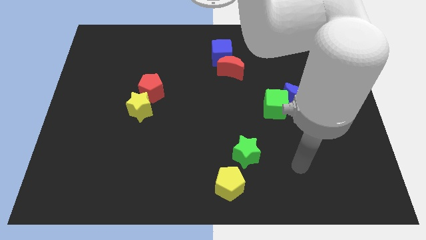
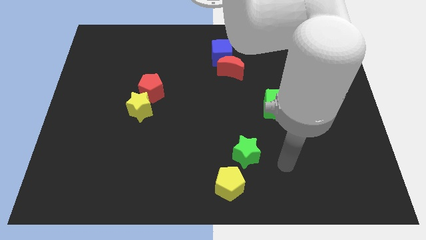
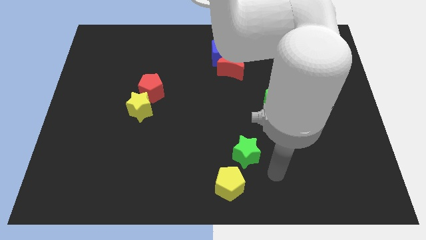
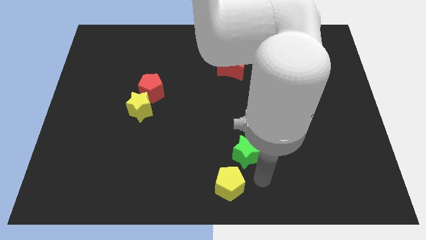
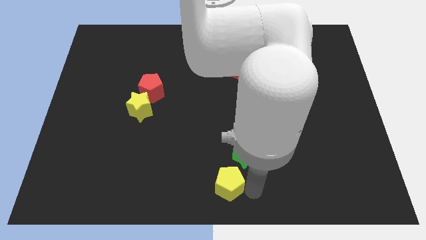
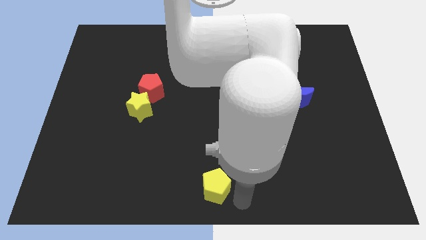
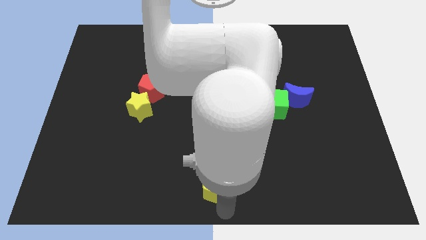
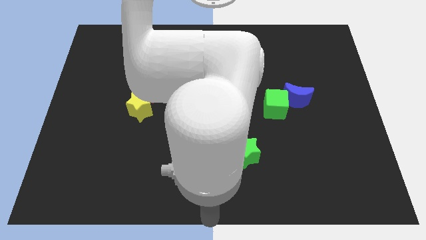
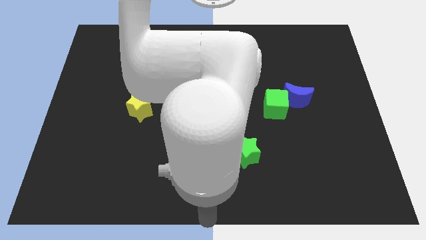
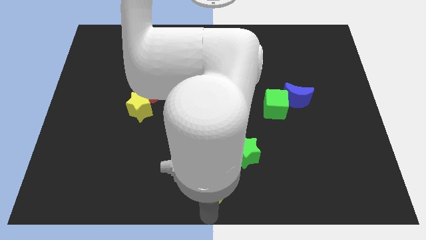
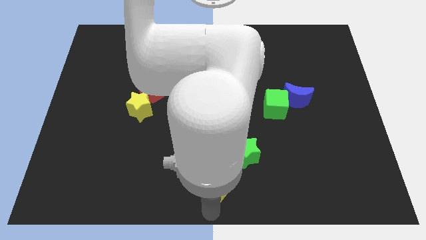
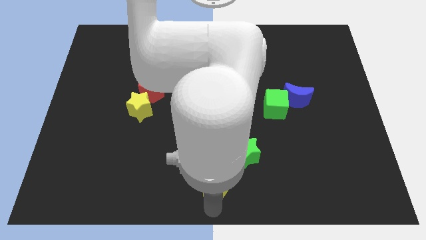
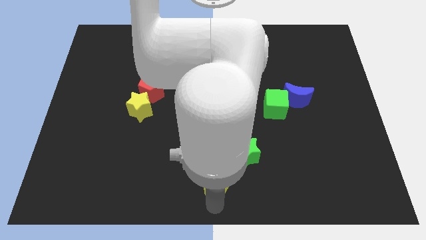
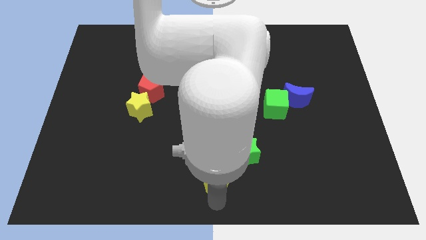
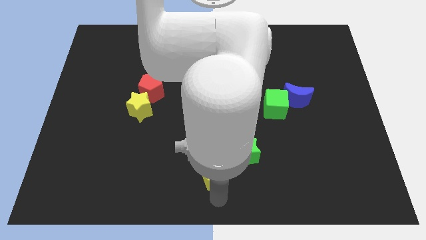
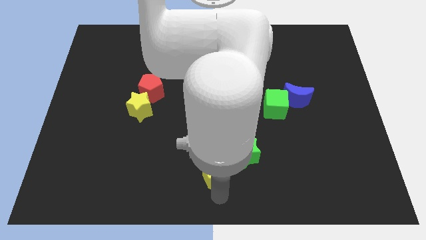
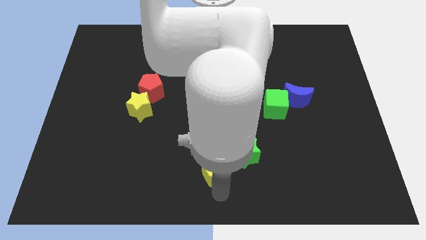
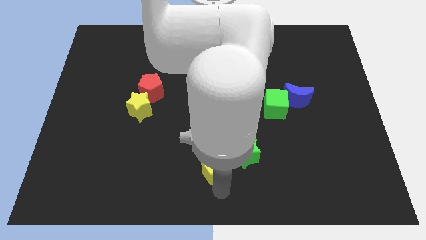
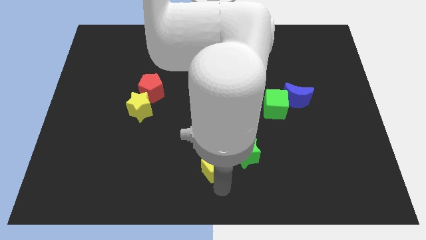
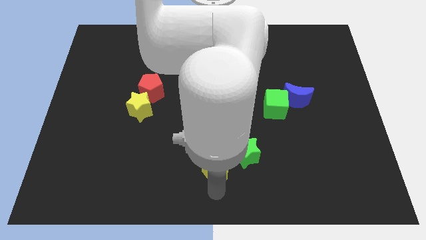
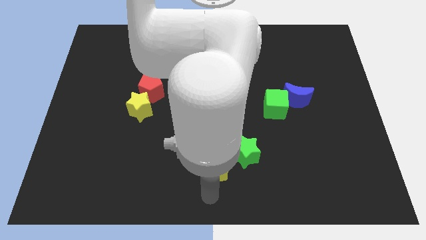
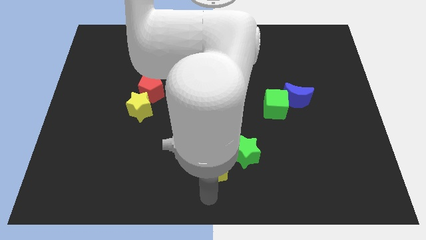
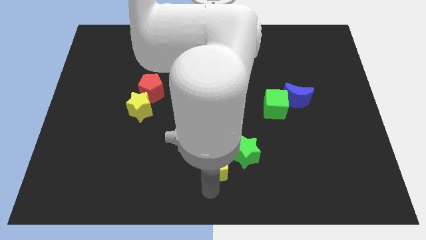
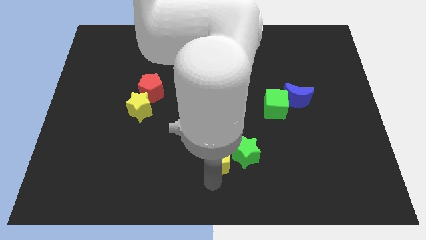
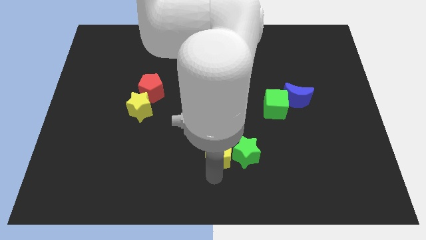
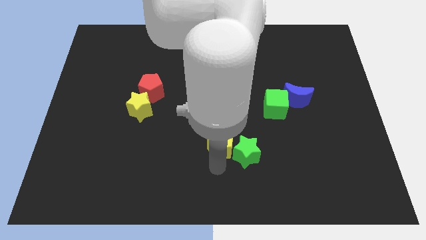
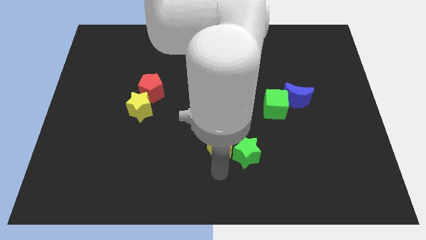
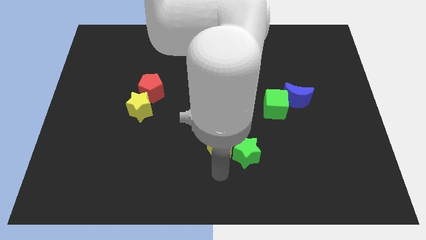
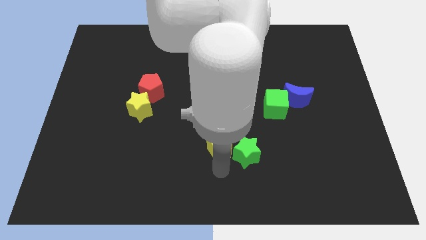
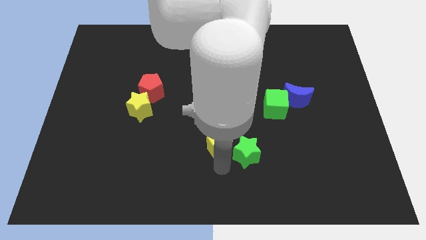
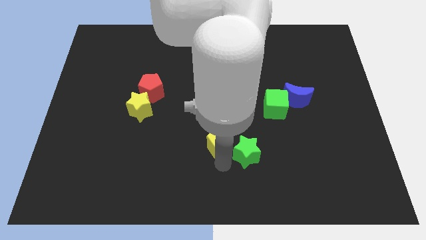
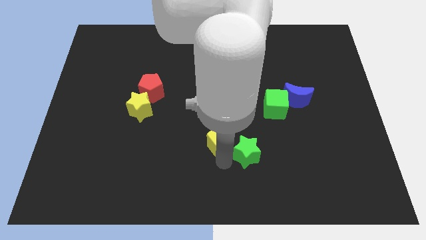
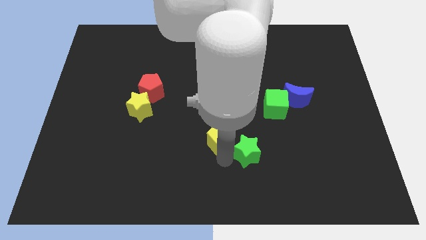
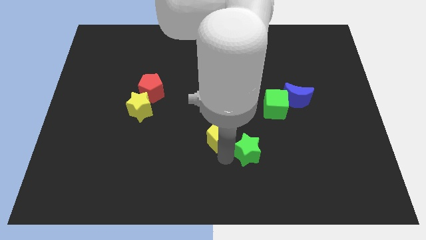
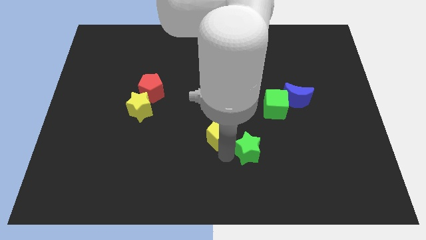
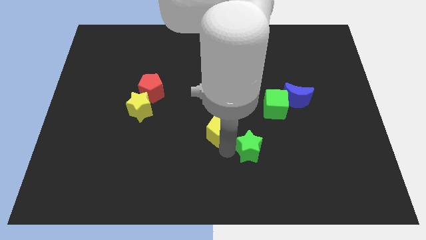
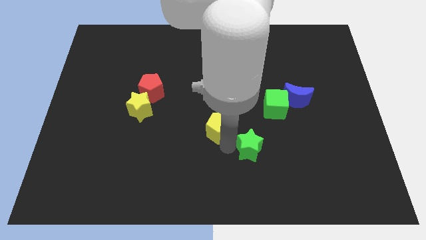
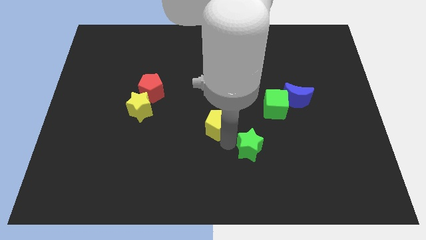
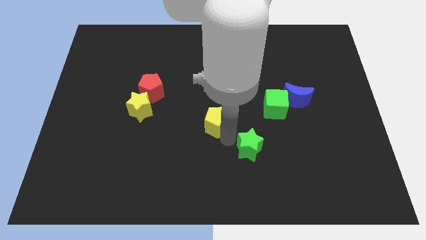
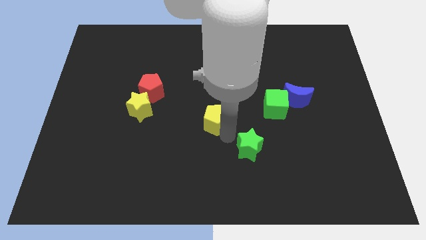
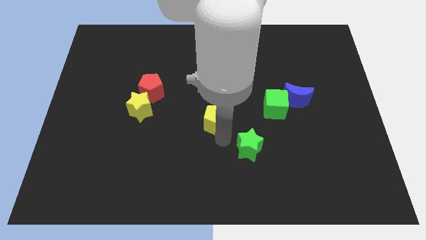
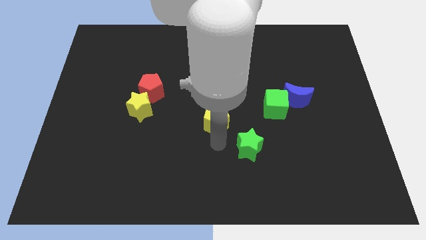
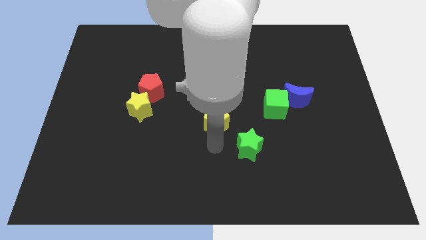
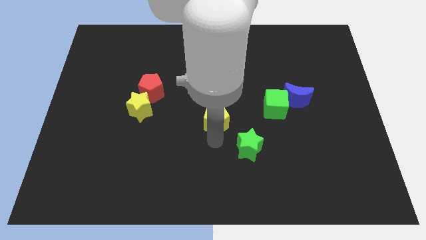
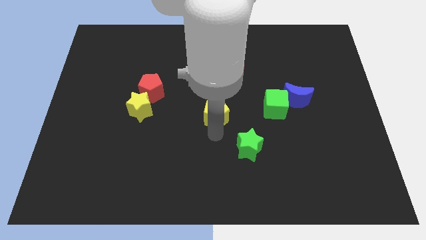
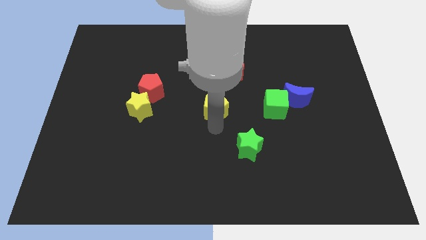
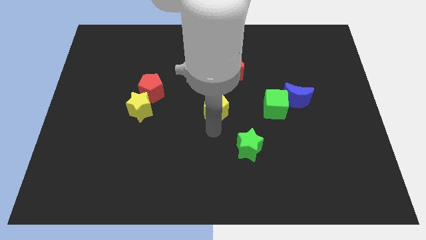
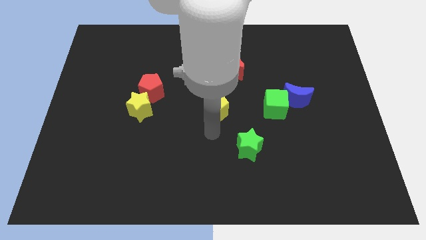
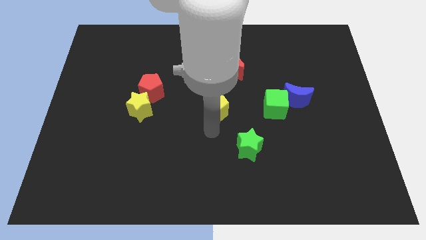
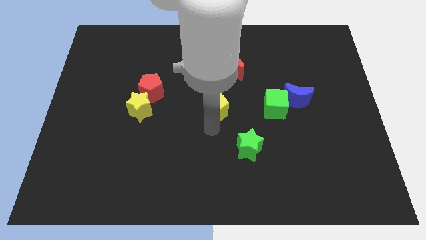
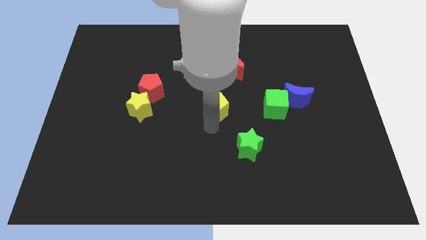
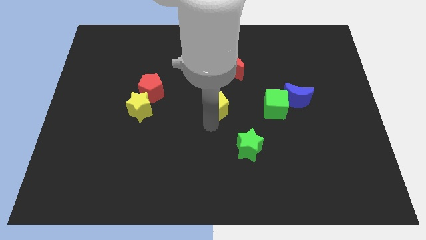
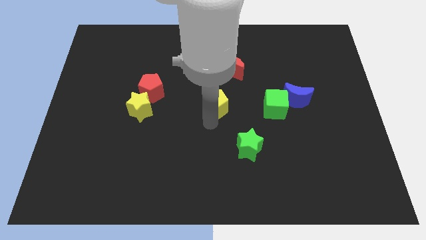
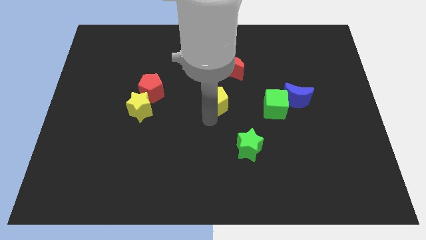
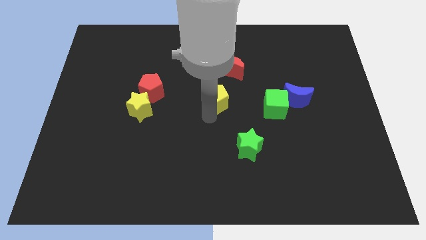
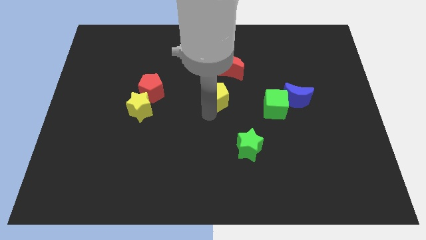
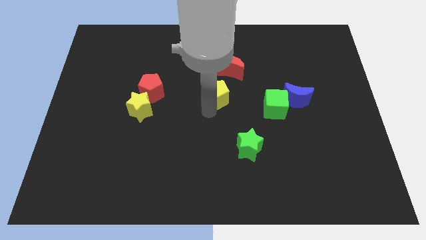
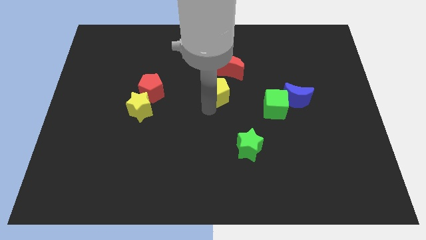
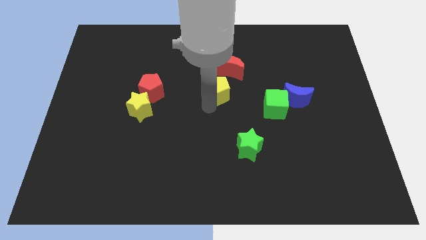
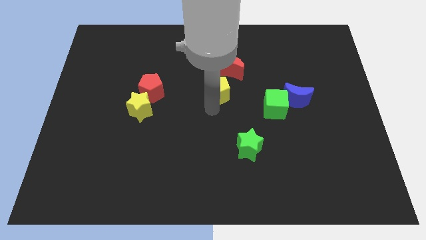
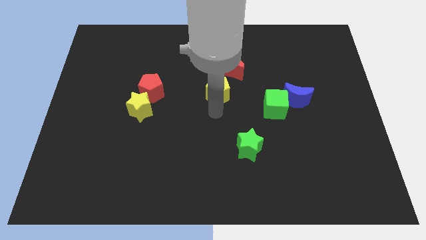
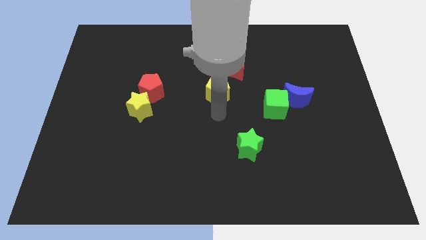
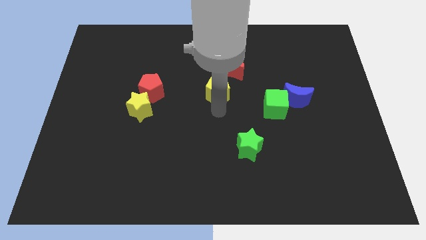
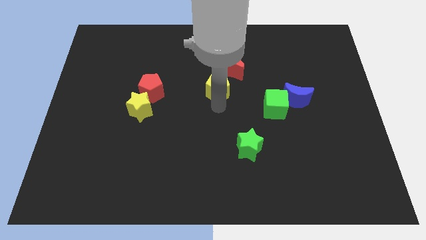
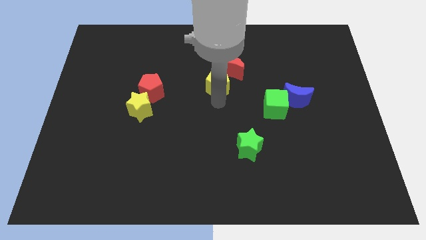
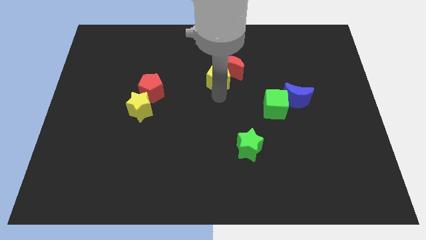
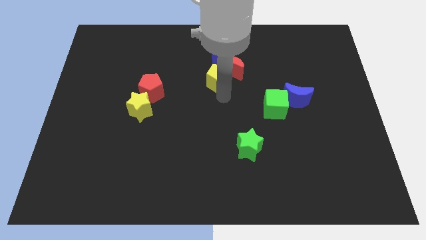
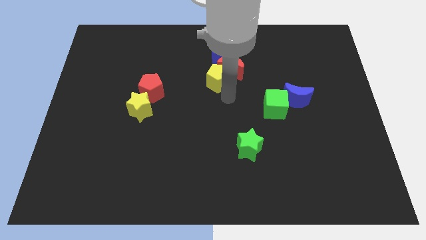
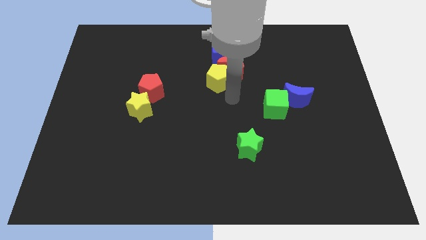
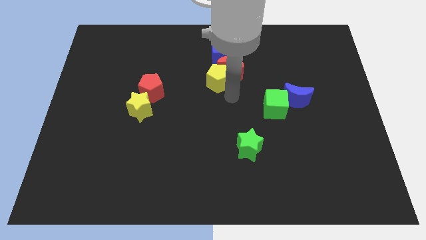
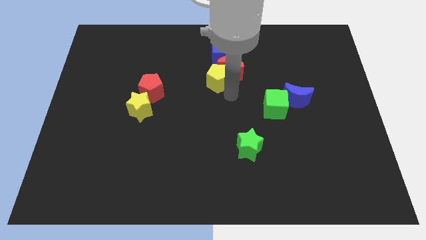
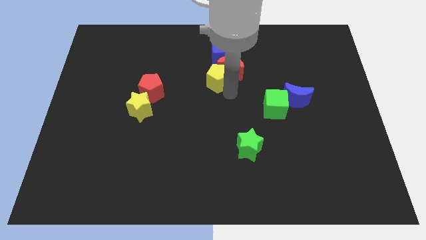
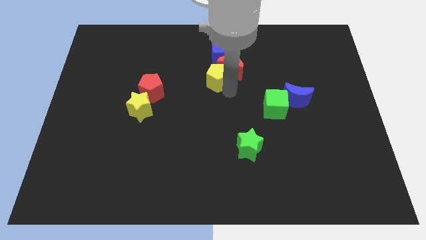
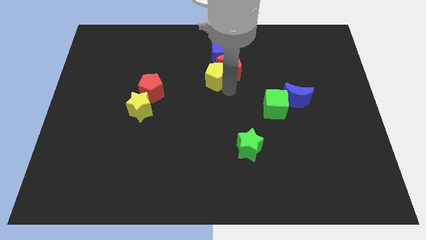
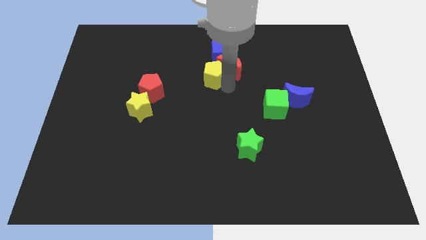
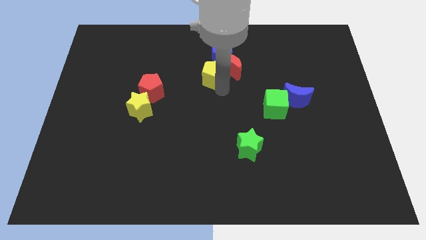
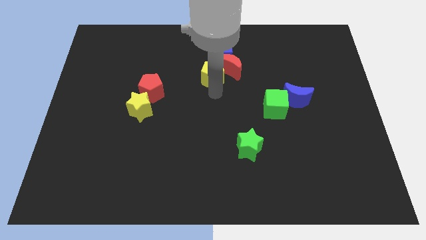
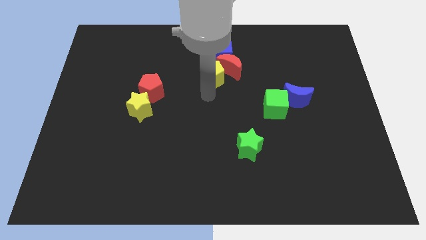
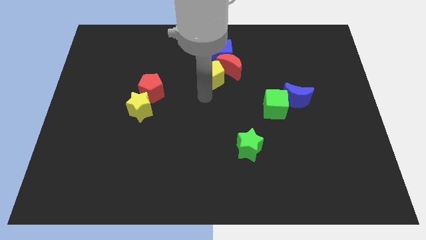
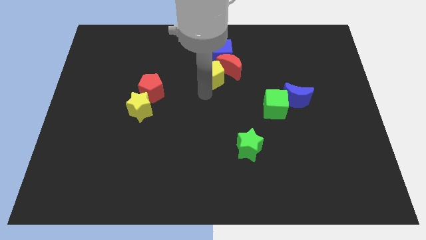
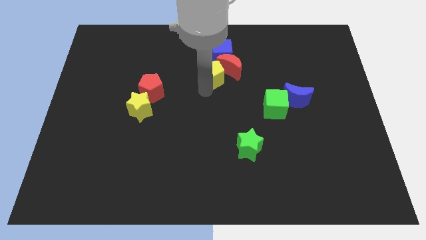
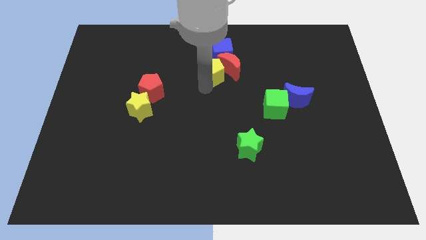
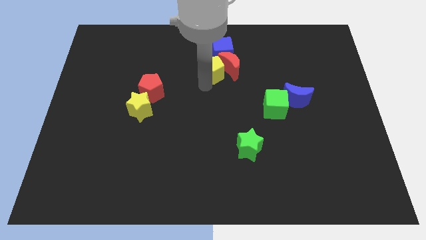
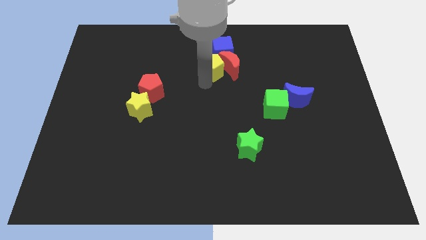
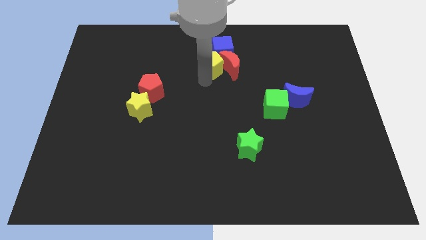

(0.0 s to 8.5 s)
slide the yellow pentagon next to the blue cube
